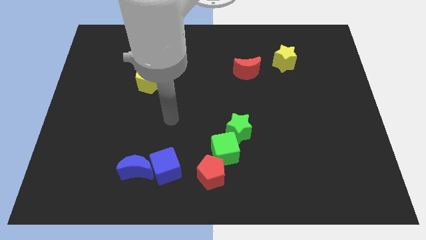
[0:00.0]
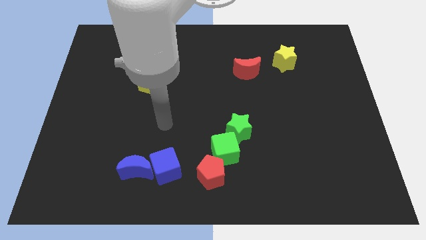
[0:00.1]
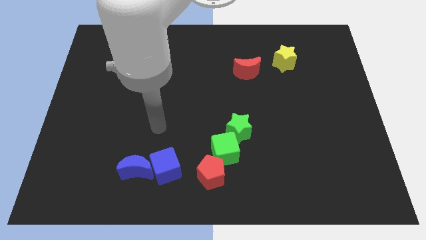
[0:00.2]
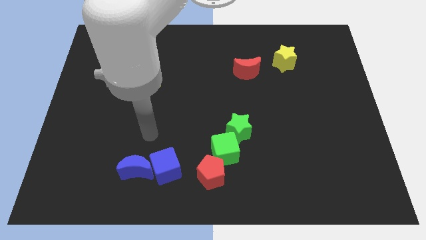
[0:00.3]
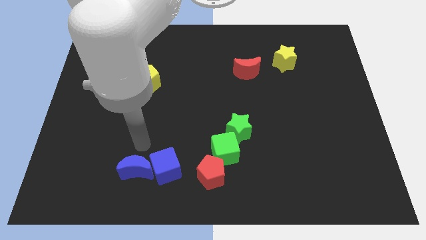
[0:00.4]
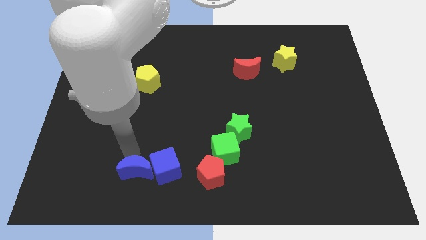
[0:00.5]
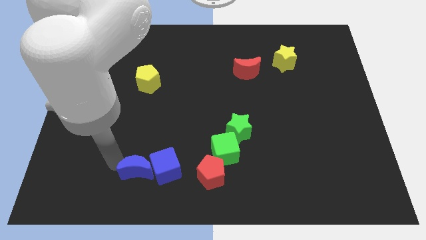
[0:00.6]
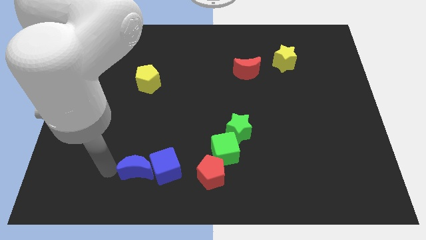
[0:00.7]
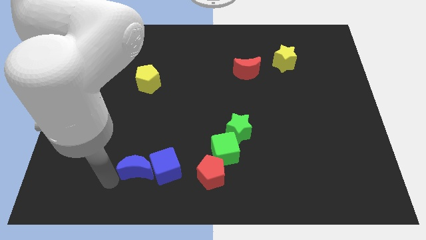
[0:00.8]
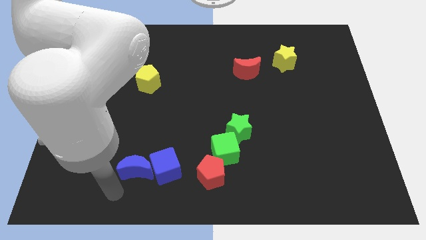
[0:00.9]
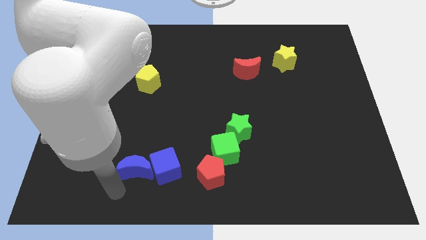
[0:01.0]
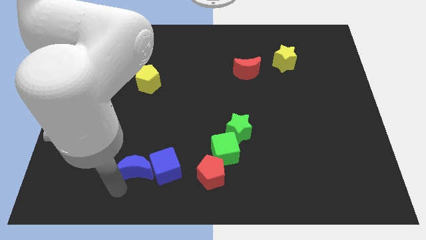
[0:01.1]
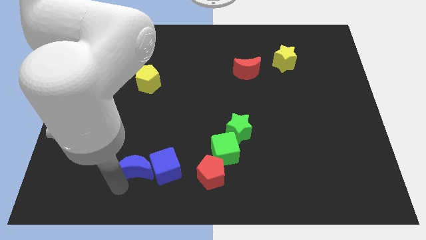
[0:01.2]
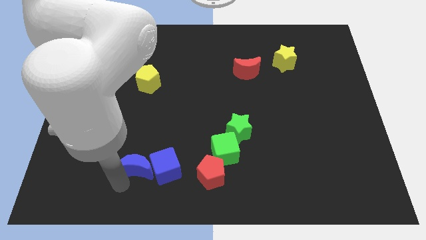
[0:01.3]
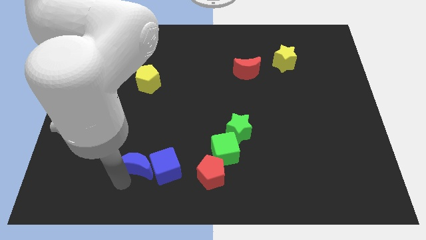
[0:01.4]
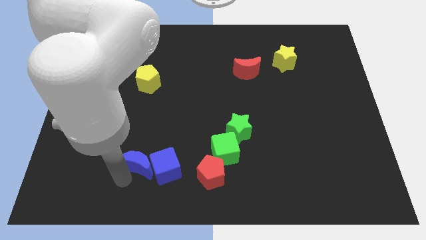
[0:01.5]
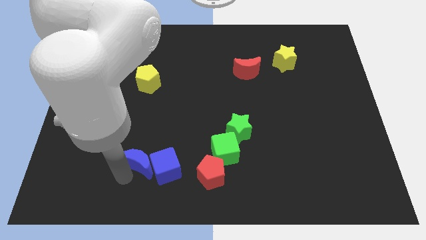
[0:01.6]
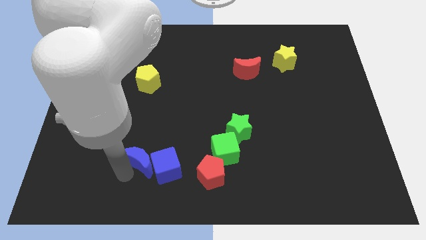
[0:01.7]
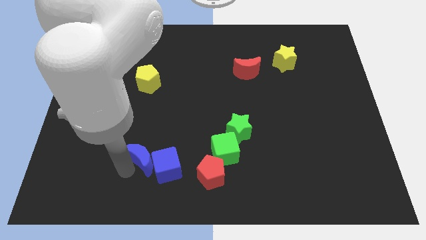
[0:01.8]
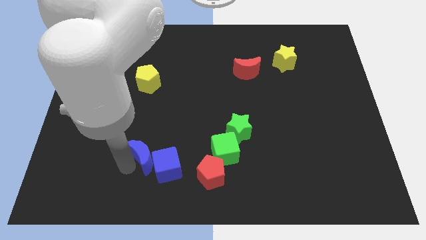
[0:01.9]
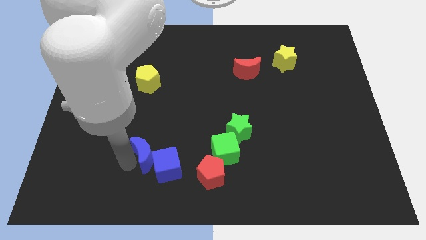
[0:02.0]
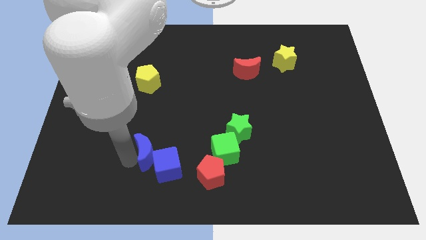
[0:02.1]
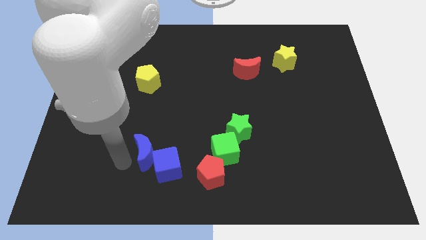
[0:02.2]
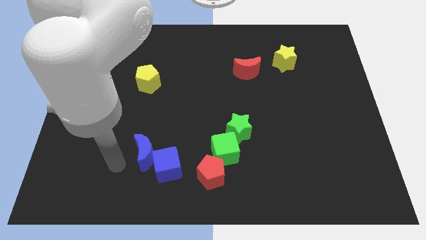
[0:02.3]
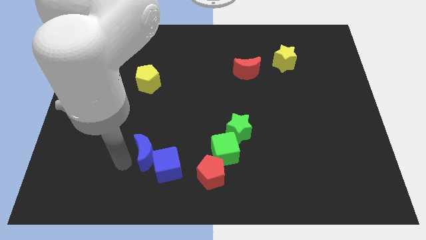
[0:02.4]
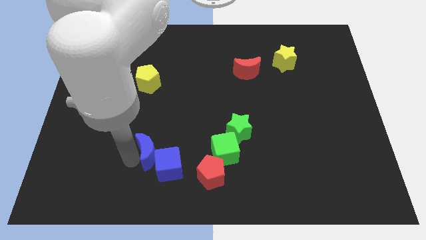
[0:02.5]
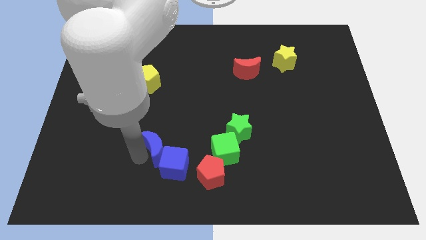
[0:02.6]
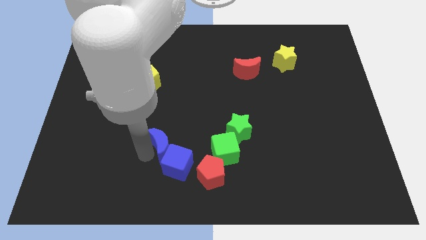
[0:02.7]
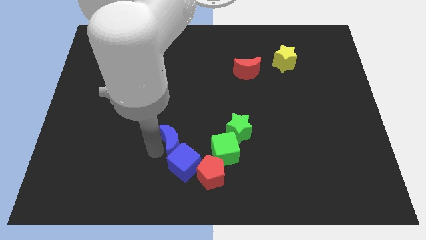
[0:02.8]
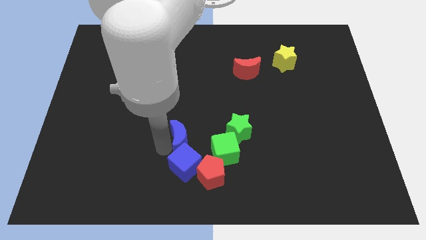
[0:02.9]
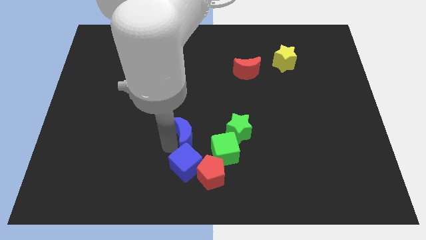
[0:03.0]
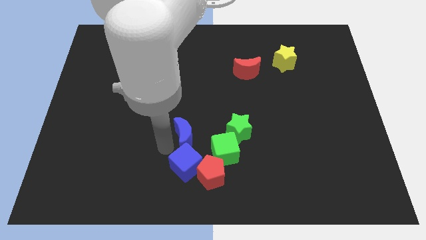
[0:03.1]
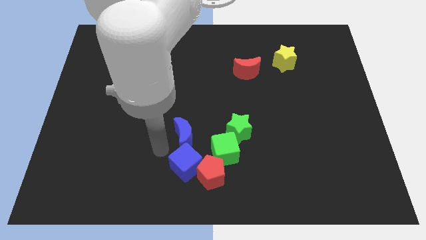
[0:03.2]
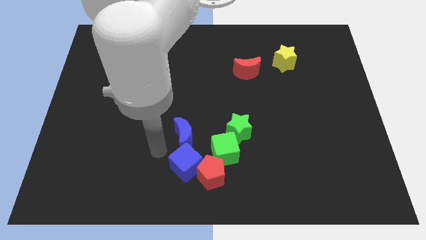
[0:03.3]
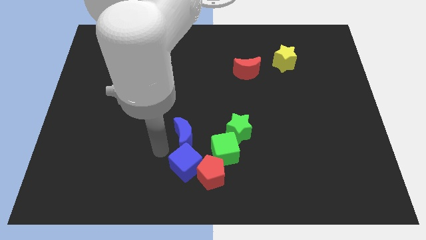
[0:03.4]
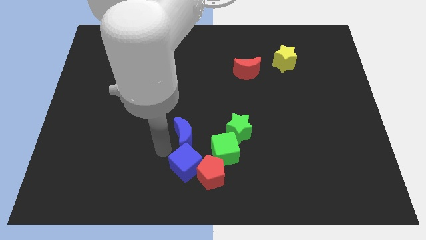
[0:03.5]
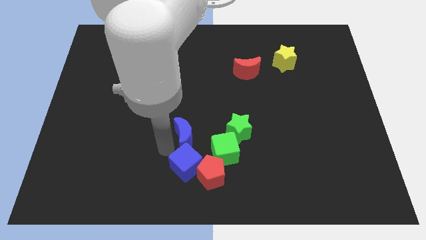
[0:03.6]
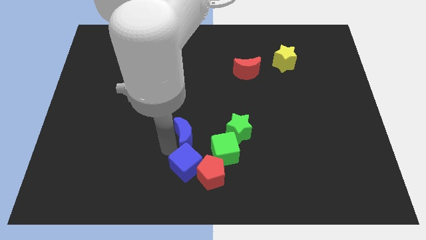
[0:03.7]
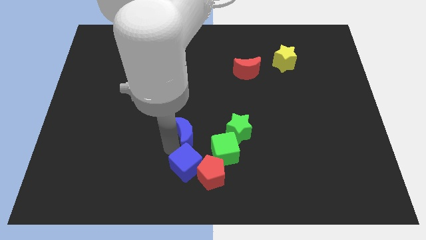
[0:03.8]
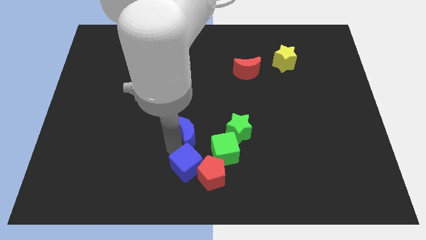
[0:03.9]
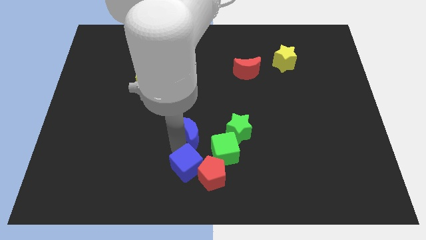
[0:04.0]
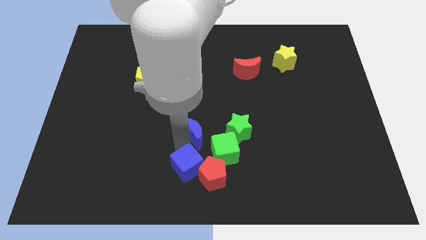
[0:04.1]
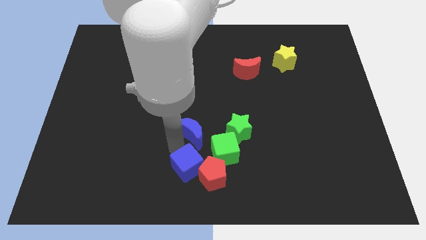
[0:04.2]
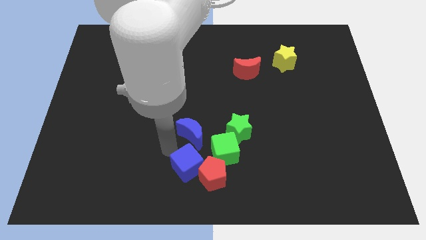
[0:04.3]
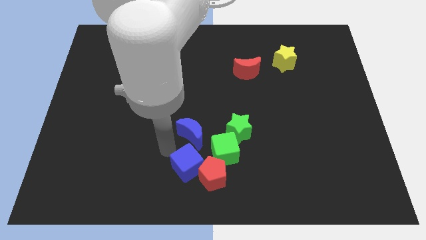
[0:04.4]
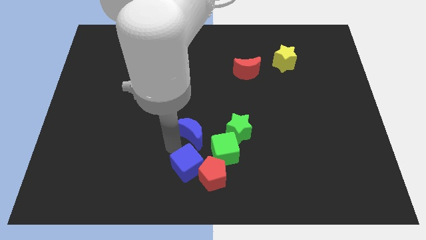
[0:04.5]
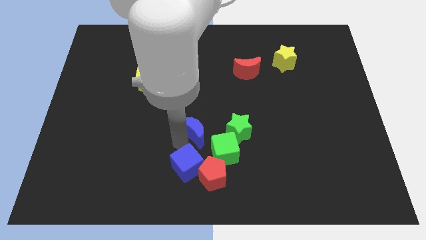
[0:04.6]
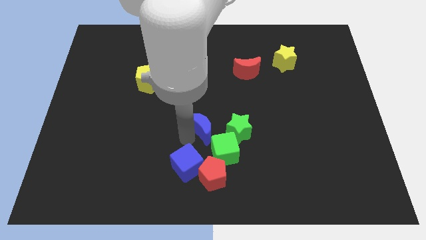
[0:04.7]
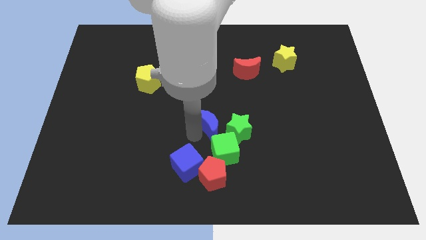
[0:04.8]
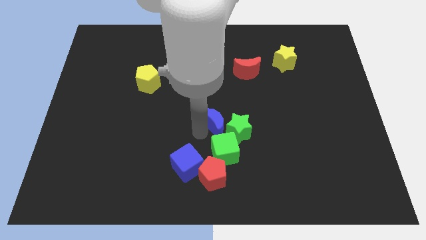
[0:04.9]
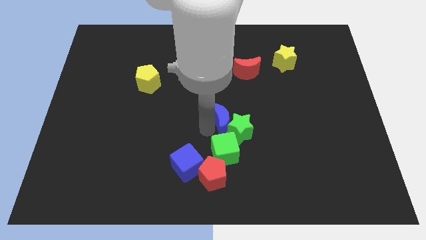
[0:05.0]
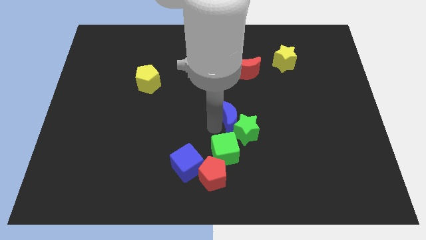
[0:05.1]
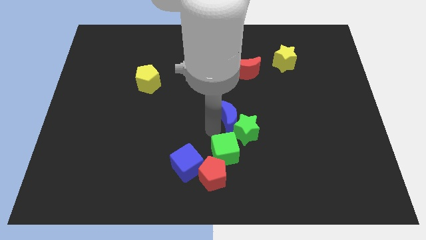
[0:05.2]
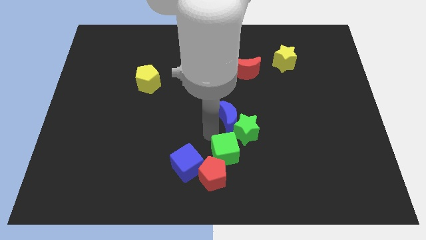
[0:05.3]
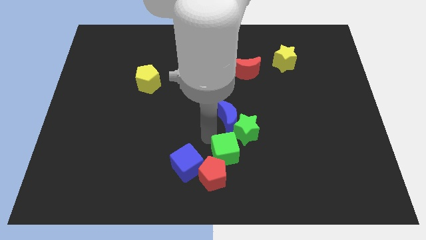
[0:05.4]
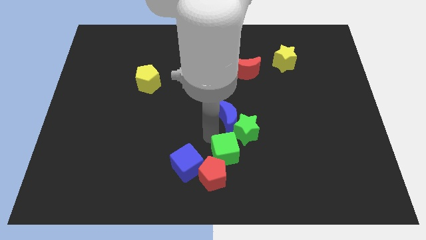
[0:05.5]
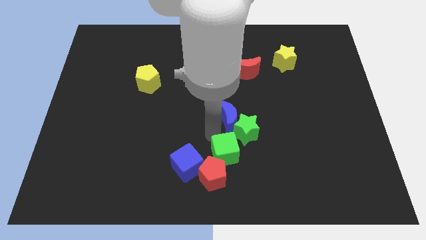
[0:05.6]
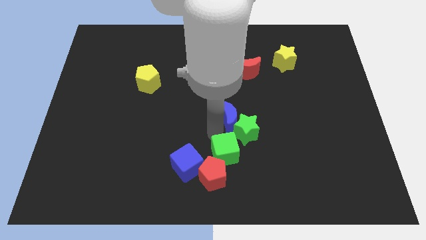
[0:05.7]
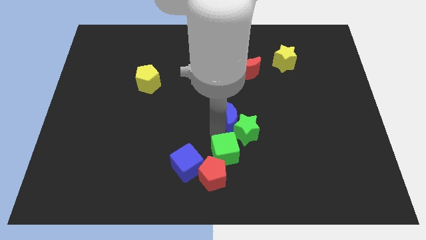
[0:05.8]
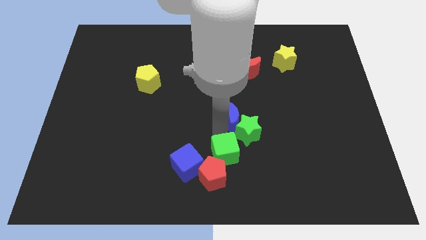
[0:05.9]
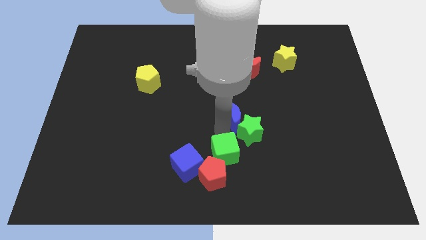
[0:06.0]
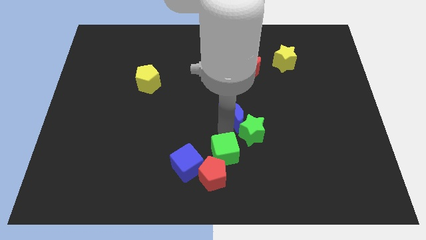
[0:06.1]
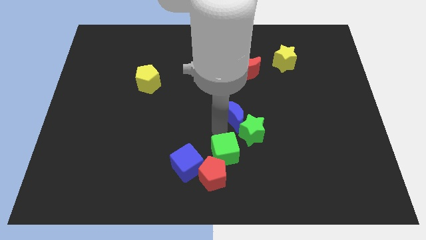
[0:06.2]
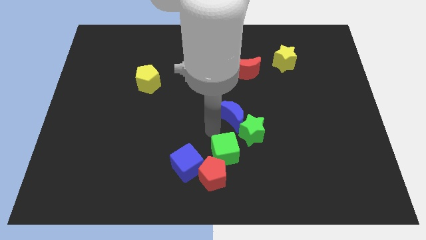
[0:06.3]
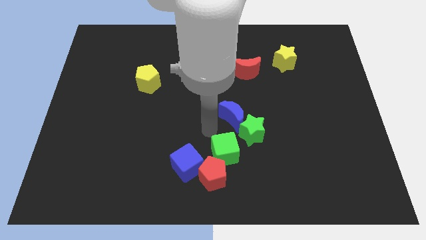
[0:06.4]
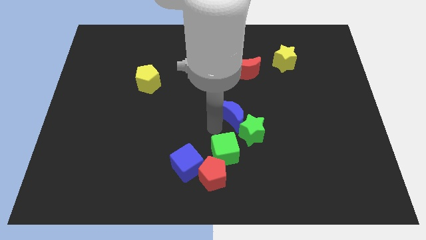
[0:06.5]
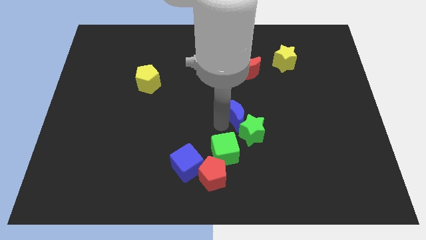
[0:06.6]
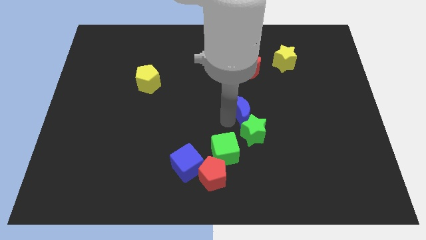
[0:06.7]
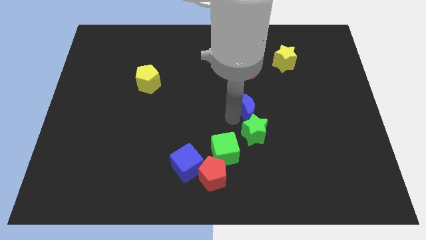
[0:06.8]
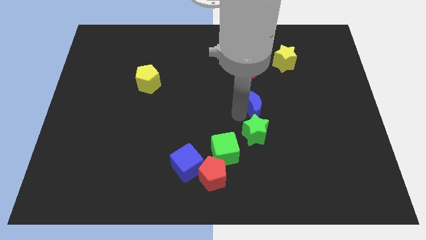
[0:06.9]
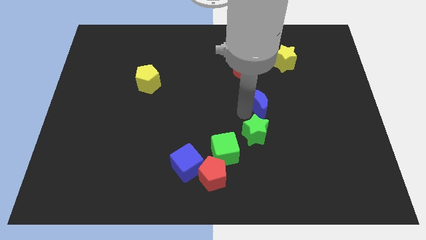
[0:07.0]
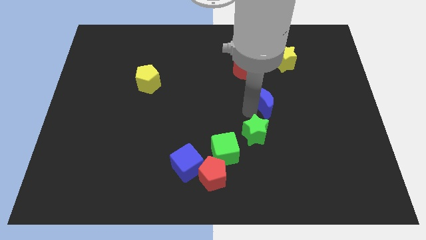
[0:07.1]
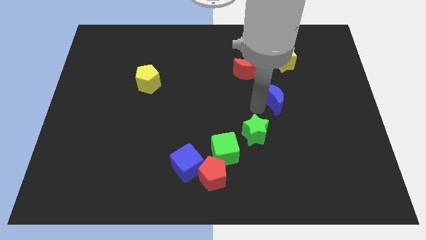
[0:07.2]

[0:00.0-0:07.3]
push the blue moon to the bottom side of the yellow star

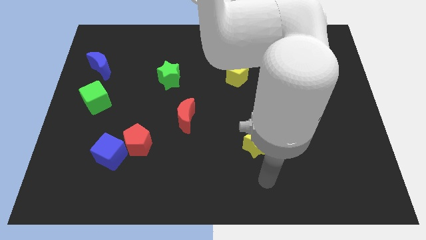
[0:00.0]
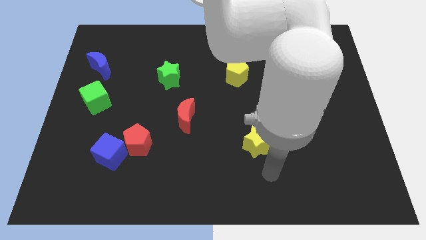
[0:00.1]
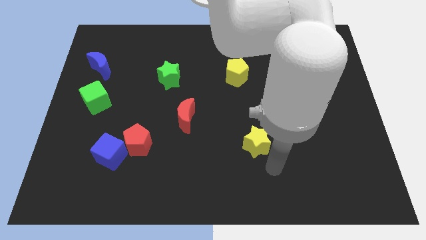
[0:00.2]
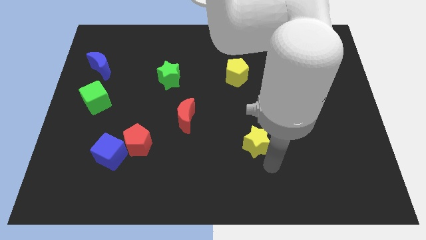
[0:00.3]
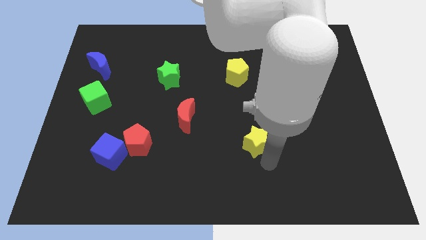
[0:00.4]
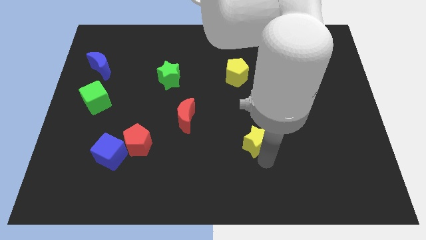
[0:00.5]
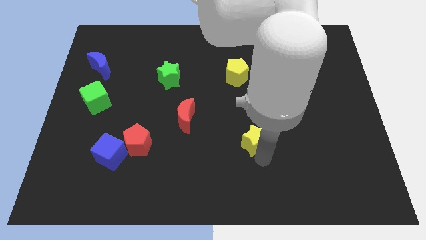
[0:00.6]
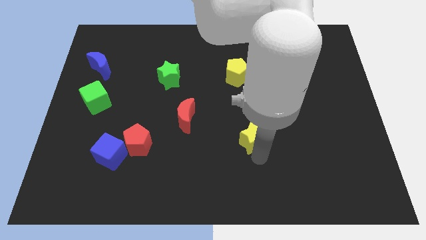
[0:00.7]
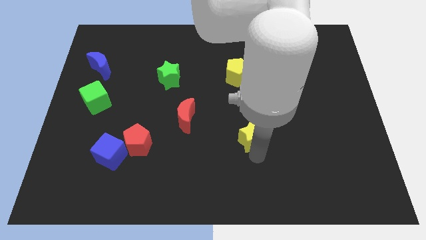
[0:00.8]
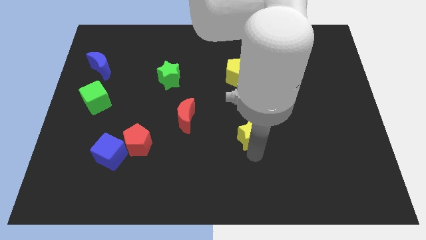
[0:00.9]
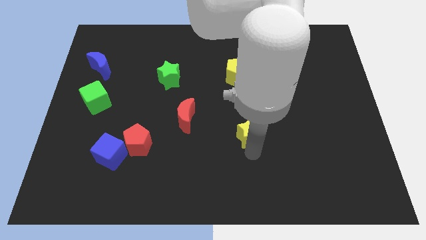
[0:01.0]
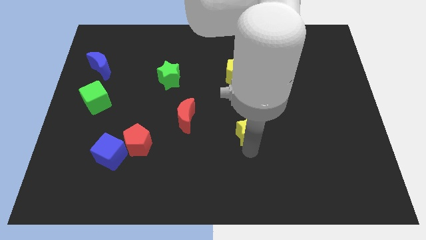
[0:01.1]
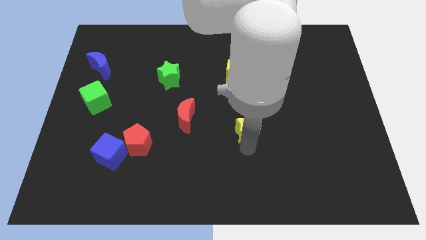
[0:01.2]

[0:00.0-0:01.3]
slide the yellow star right of the red moon
